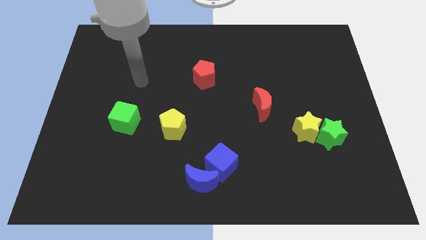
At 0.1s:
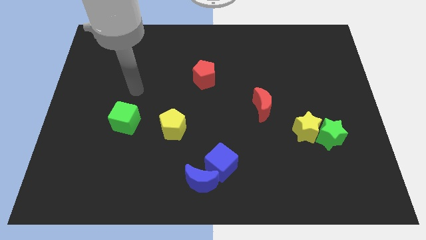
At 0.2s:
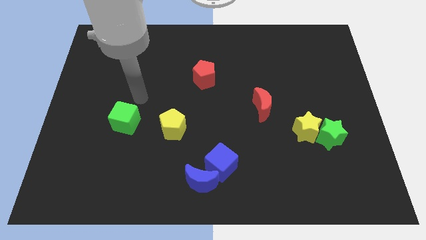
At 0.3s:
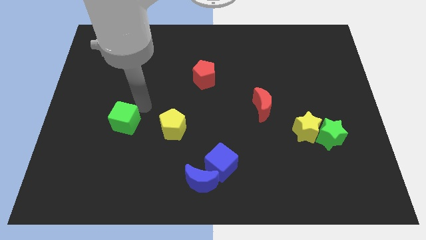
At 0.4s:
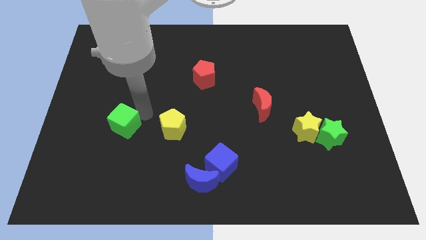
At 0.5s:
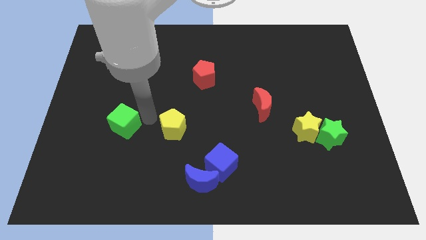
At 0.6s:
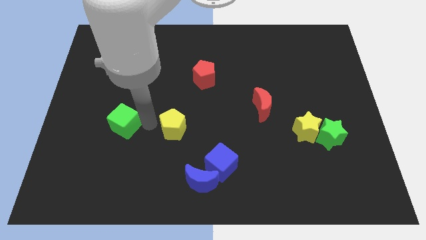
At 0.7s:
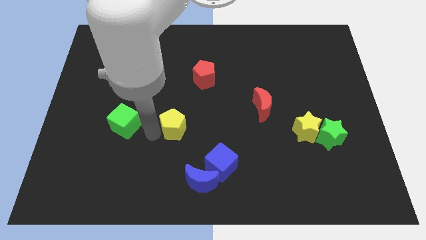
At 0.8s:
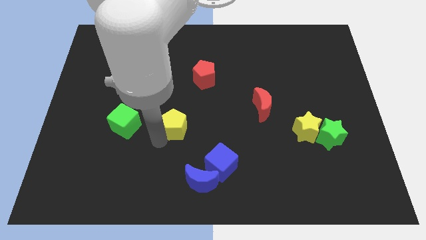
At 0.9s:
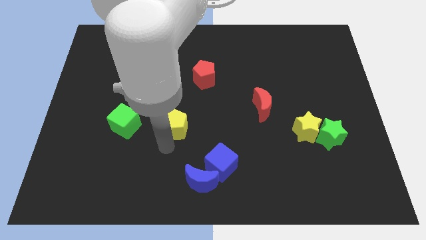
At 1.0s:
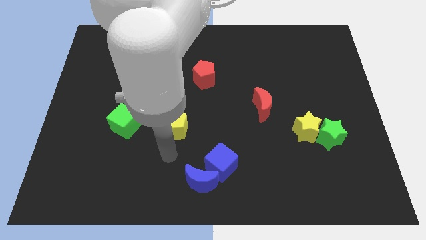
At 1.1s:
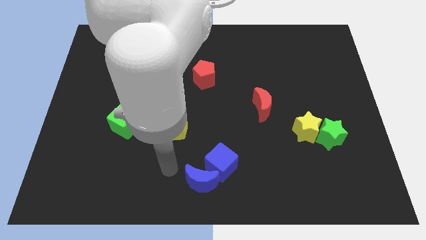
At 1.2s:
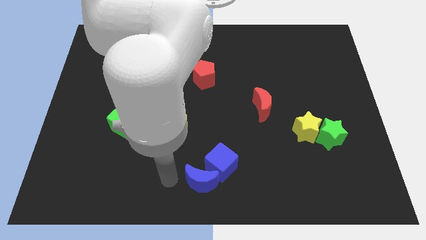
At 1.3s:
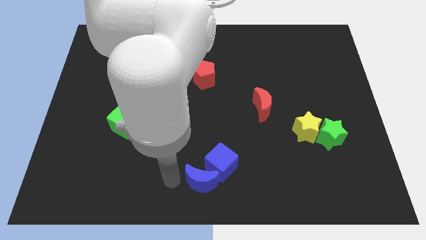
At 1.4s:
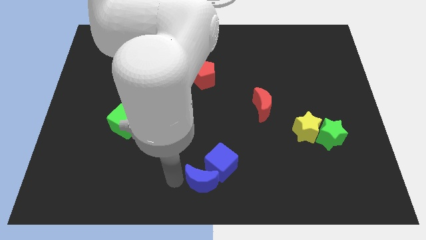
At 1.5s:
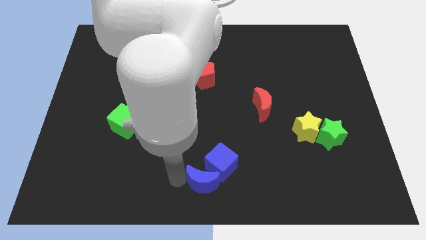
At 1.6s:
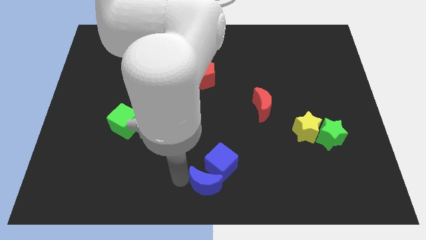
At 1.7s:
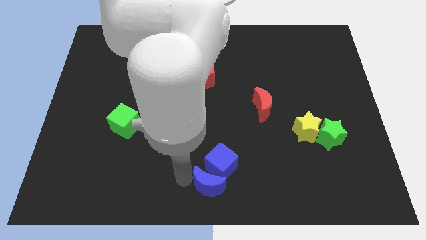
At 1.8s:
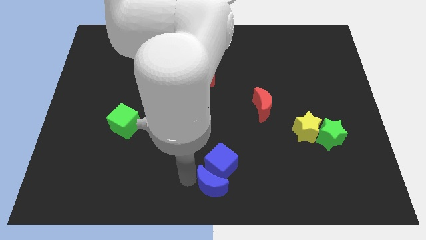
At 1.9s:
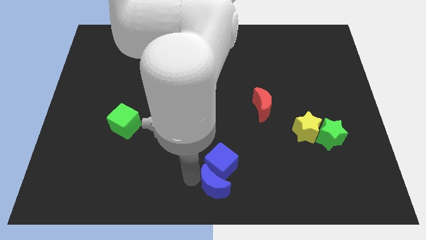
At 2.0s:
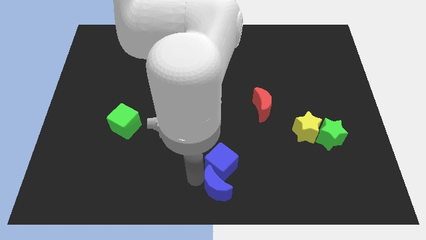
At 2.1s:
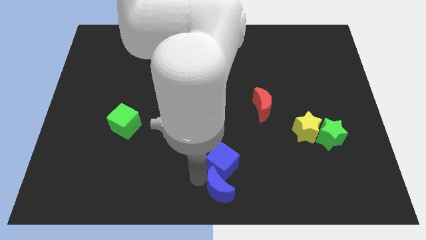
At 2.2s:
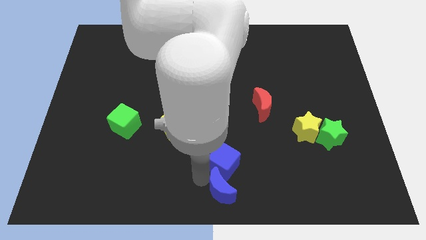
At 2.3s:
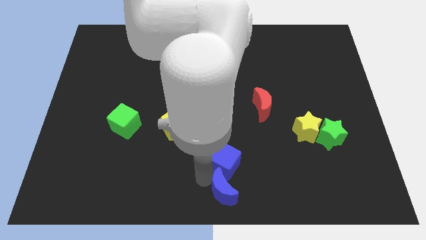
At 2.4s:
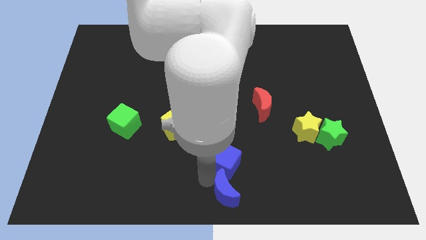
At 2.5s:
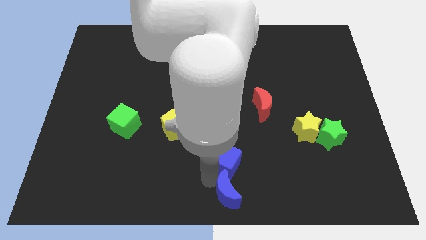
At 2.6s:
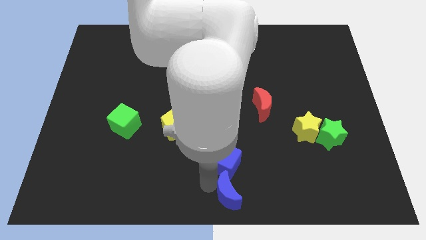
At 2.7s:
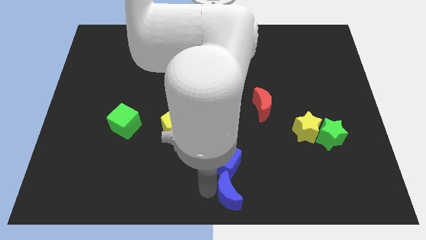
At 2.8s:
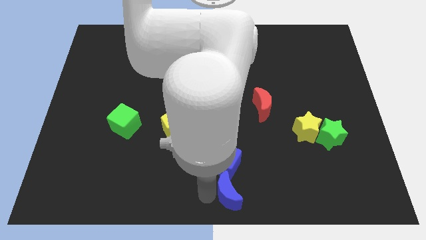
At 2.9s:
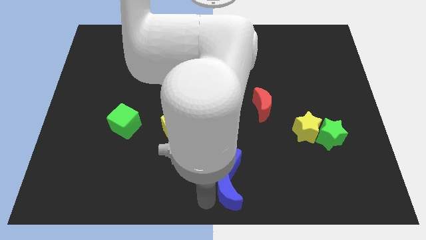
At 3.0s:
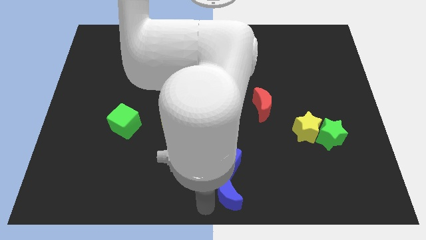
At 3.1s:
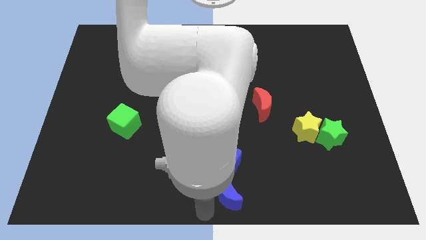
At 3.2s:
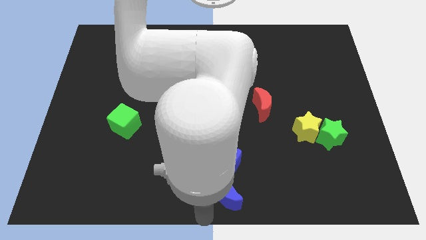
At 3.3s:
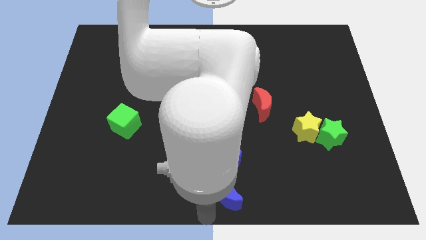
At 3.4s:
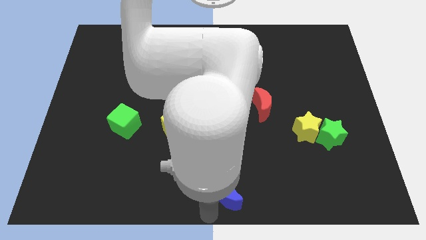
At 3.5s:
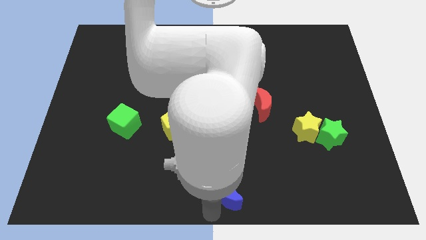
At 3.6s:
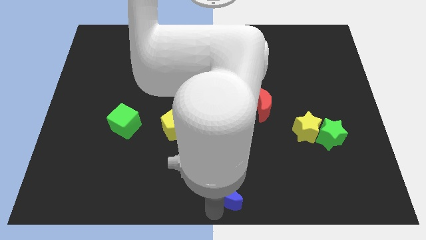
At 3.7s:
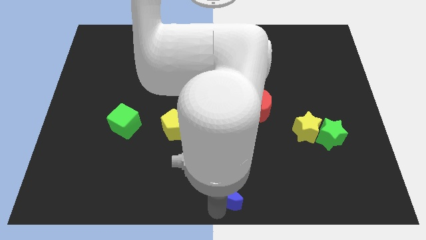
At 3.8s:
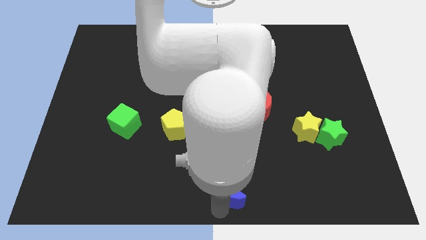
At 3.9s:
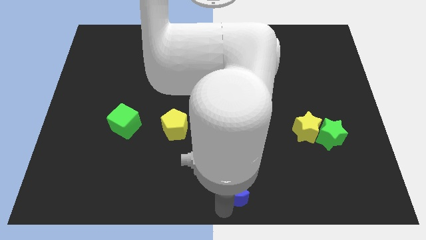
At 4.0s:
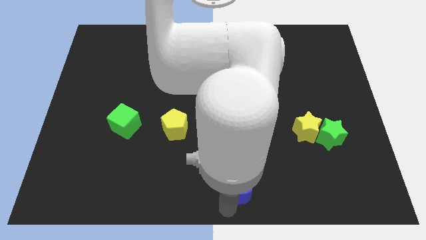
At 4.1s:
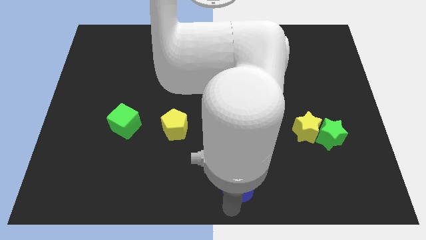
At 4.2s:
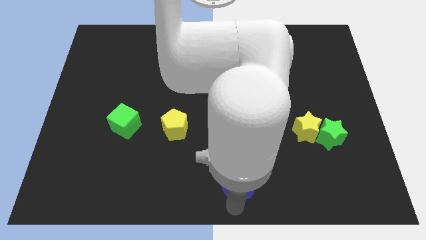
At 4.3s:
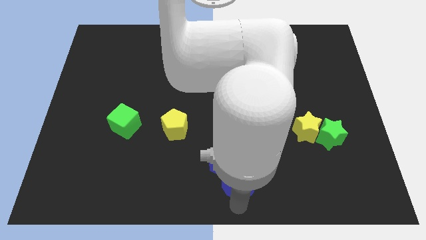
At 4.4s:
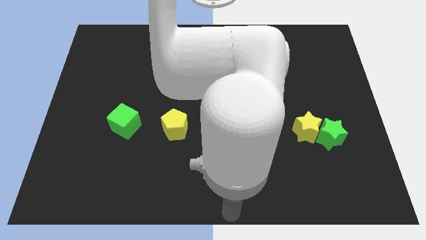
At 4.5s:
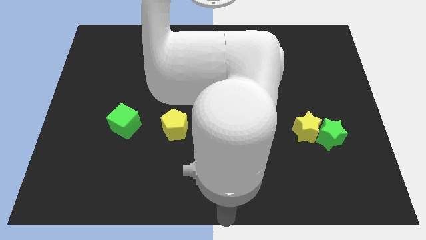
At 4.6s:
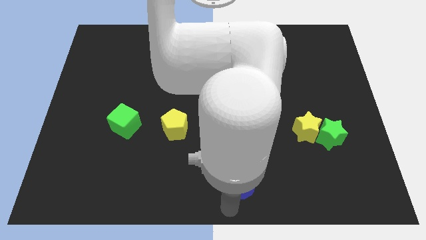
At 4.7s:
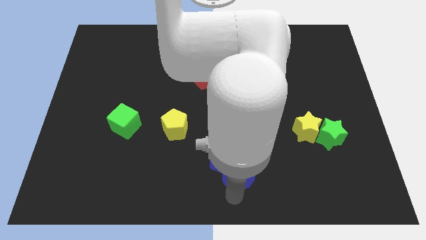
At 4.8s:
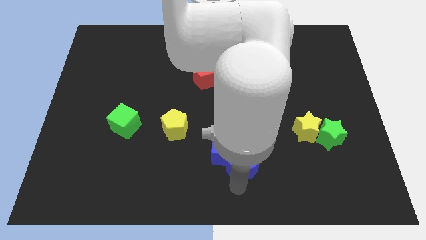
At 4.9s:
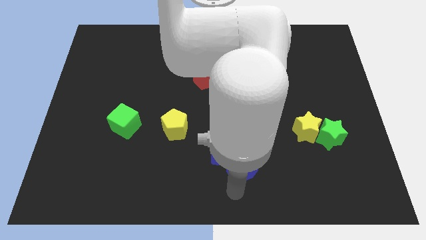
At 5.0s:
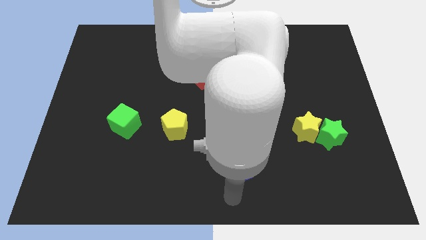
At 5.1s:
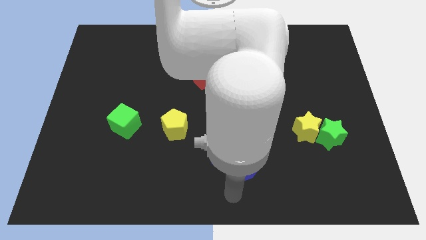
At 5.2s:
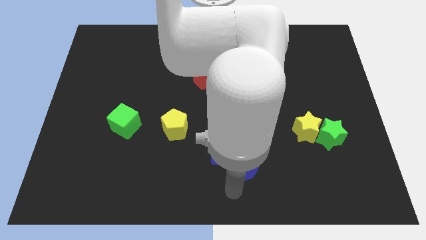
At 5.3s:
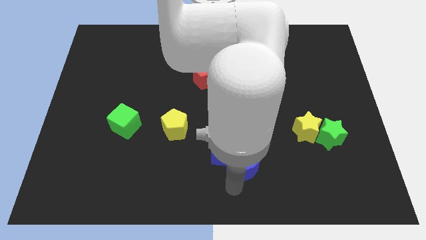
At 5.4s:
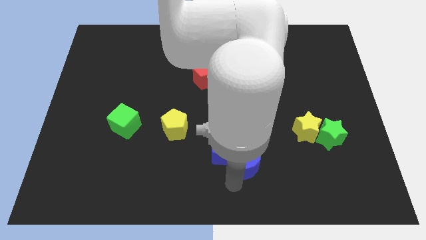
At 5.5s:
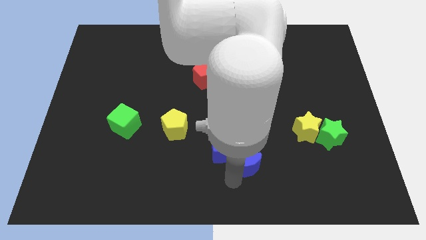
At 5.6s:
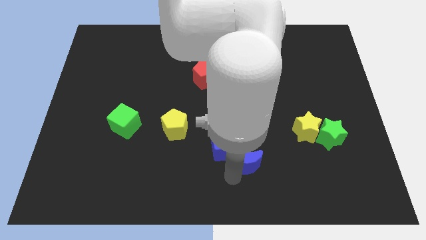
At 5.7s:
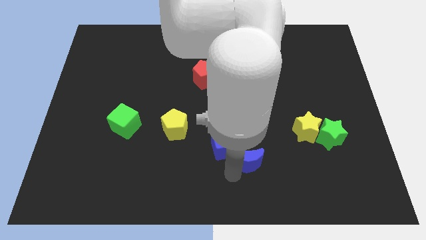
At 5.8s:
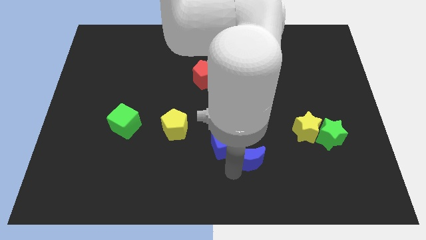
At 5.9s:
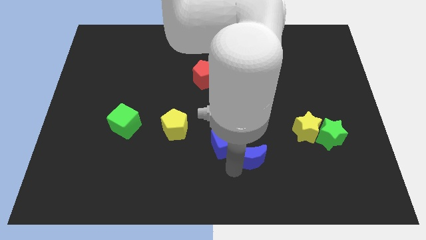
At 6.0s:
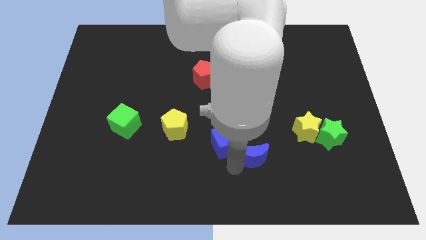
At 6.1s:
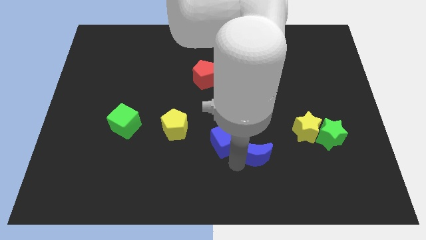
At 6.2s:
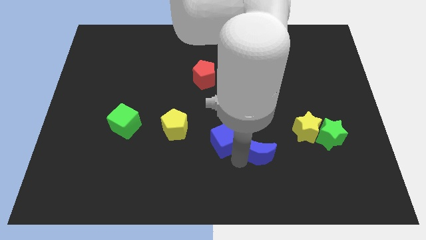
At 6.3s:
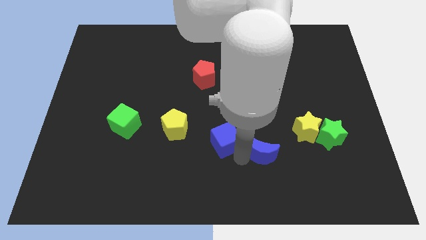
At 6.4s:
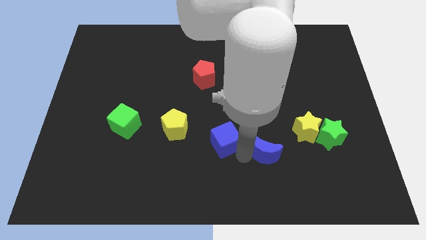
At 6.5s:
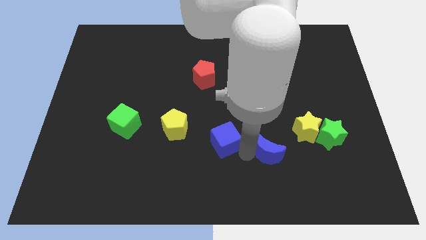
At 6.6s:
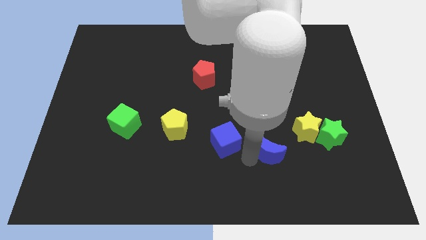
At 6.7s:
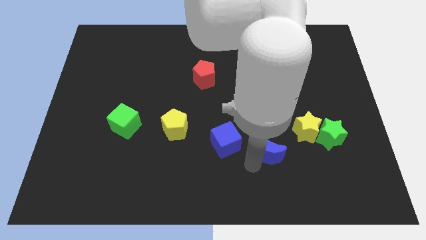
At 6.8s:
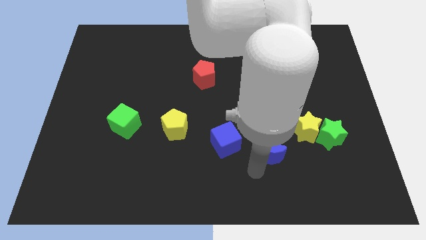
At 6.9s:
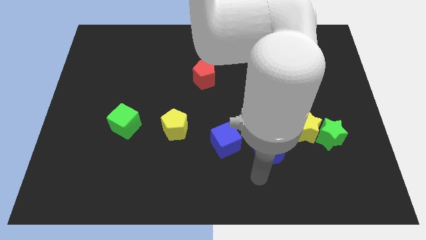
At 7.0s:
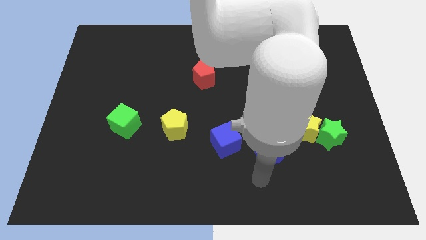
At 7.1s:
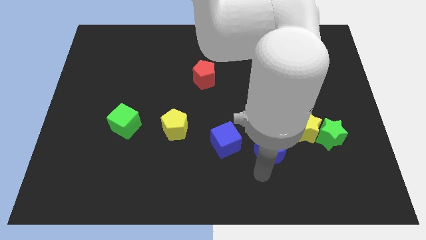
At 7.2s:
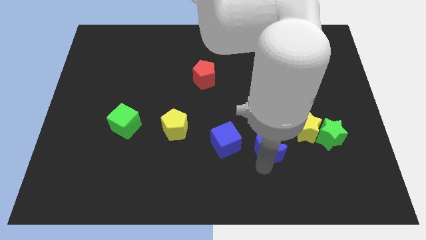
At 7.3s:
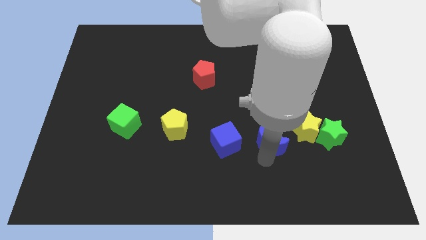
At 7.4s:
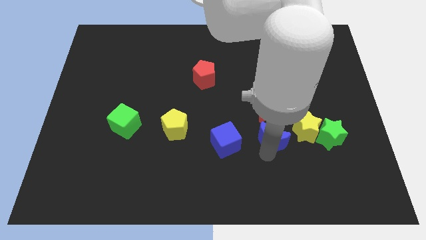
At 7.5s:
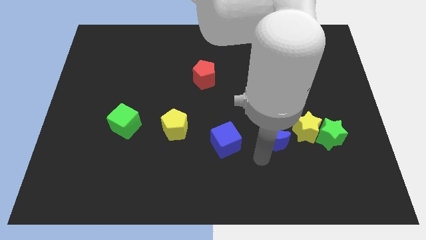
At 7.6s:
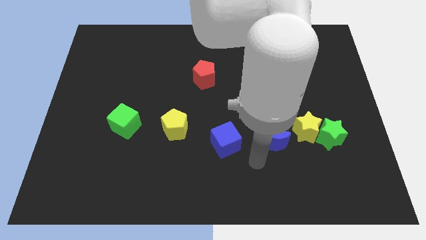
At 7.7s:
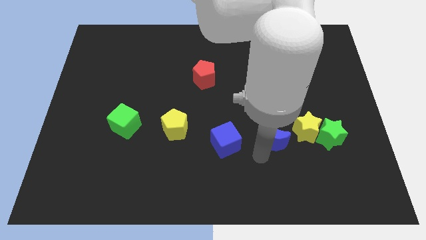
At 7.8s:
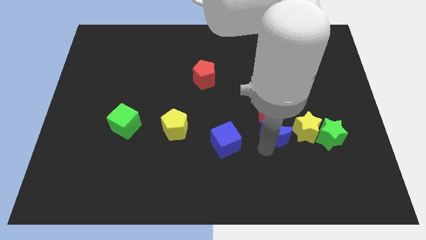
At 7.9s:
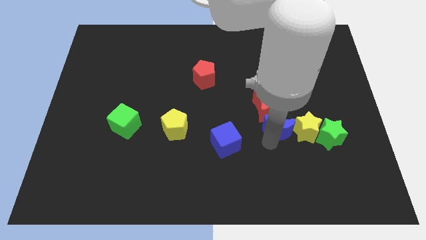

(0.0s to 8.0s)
push the blue moon upwards and to the right
